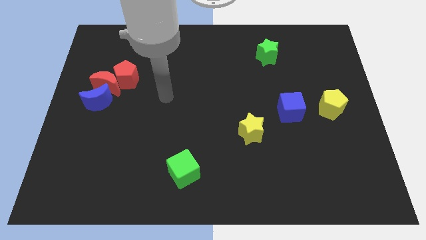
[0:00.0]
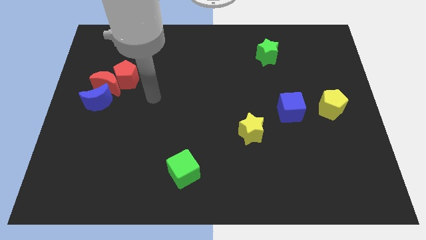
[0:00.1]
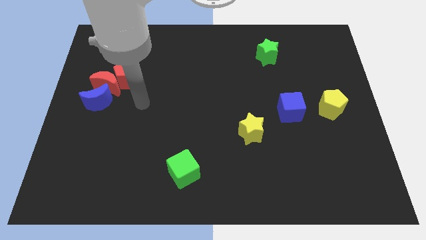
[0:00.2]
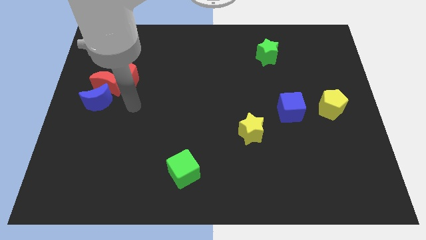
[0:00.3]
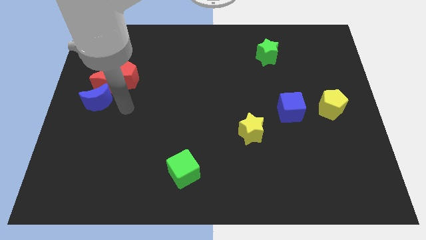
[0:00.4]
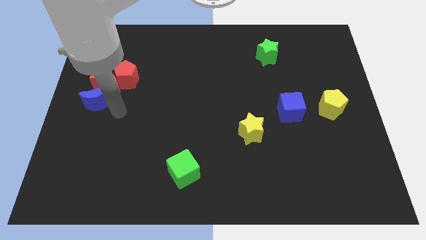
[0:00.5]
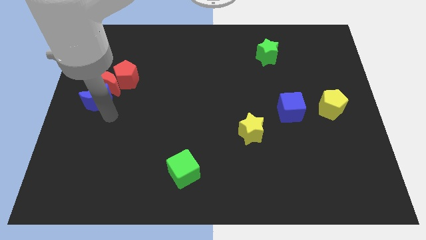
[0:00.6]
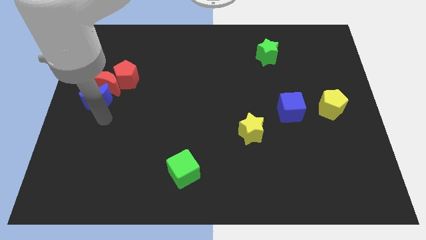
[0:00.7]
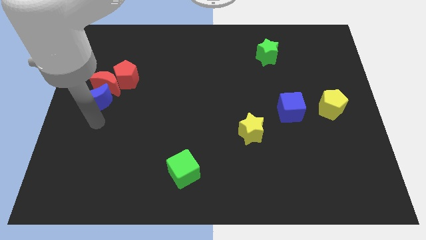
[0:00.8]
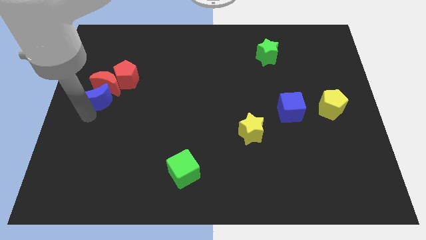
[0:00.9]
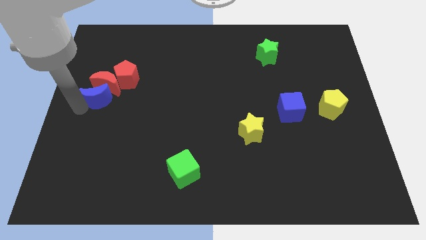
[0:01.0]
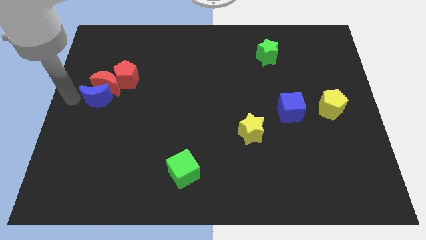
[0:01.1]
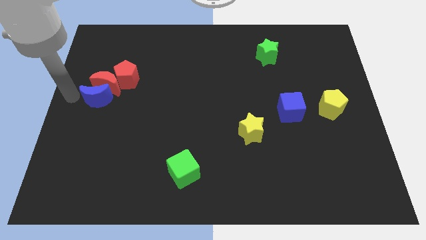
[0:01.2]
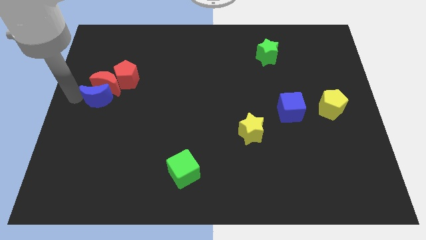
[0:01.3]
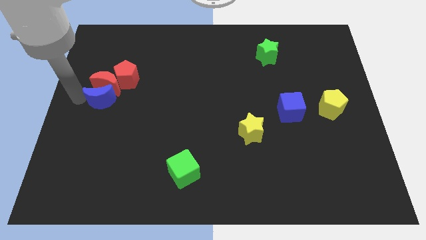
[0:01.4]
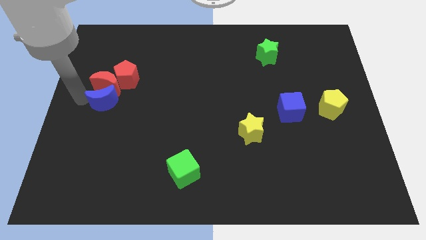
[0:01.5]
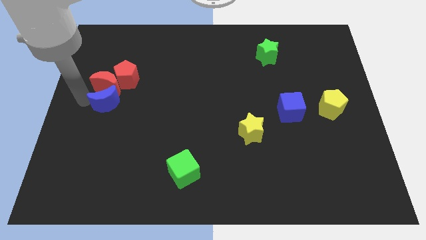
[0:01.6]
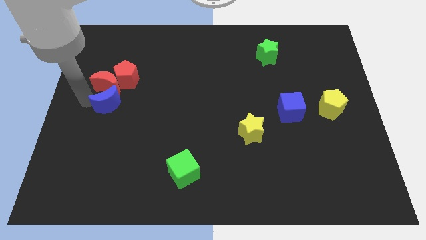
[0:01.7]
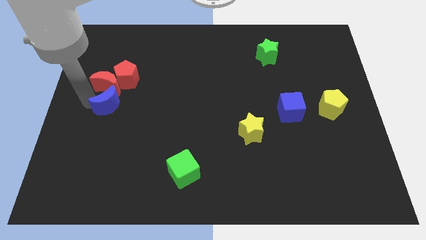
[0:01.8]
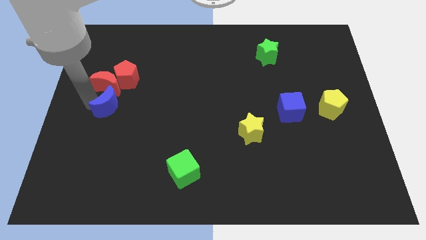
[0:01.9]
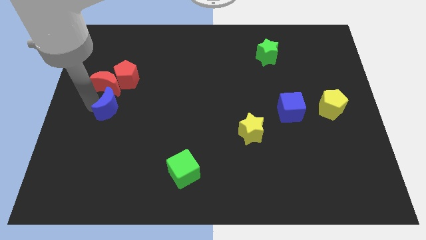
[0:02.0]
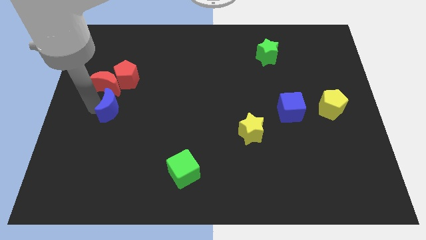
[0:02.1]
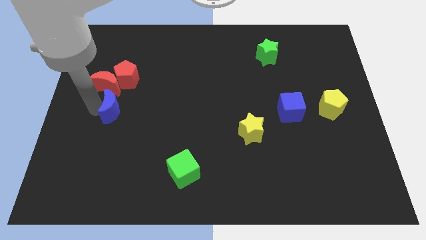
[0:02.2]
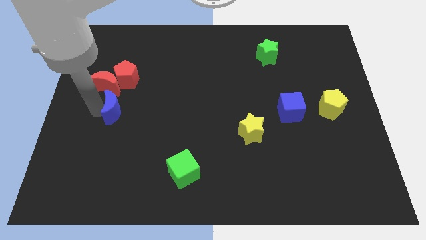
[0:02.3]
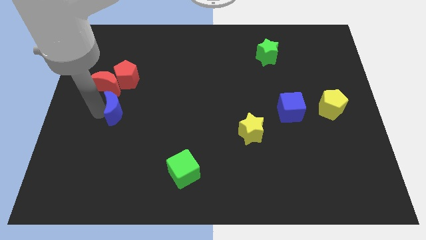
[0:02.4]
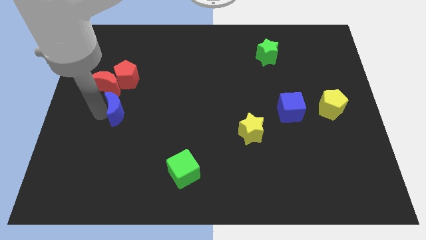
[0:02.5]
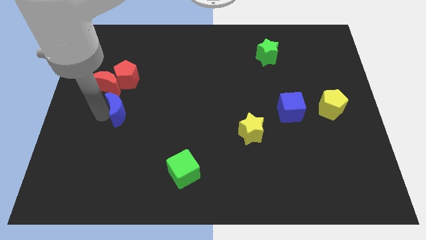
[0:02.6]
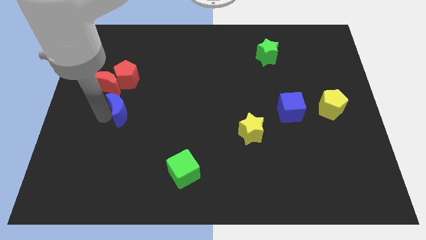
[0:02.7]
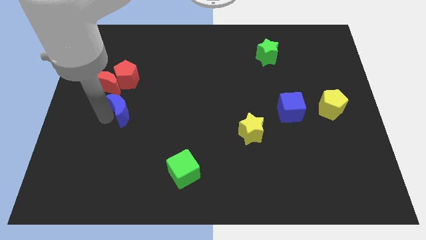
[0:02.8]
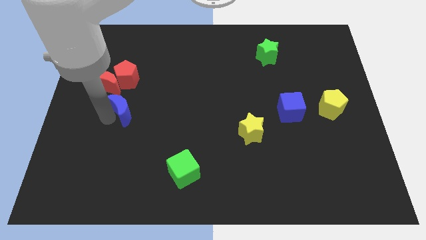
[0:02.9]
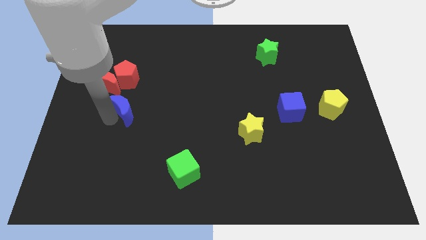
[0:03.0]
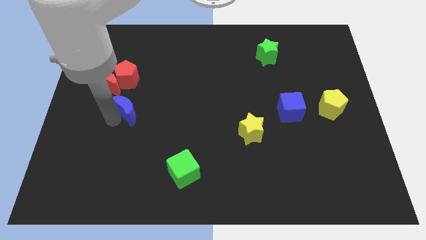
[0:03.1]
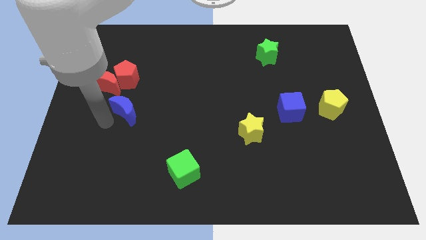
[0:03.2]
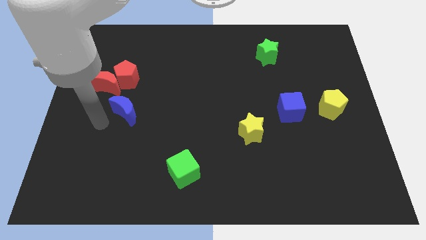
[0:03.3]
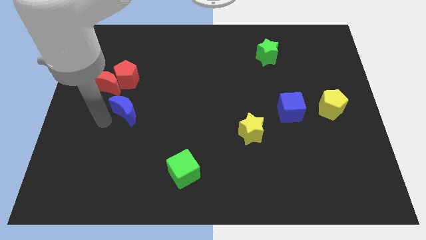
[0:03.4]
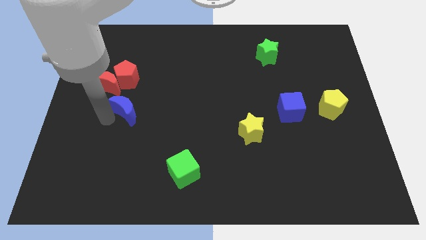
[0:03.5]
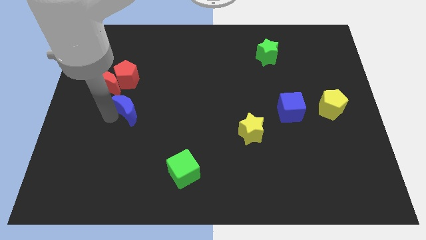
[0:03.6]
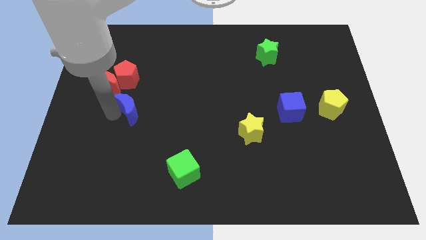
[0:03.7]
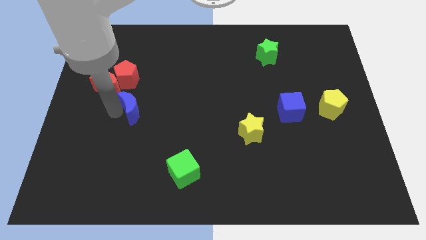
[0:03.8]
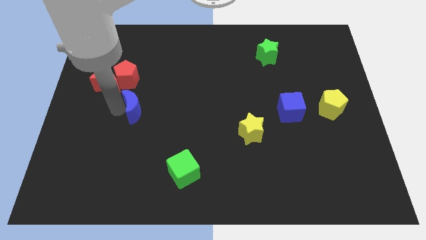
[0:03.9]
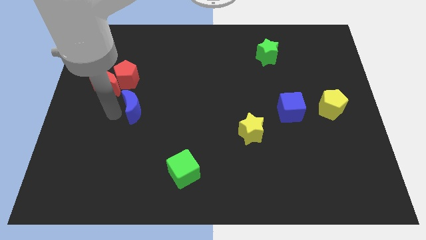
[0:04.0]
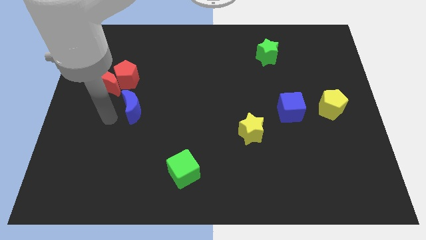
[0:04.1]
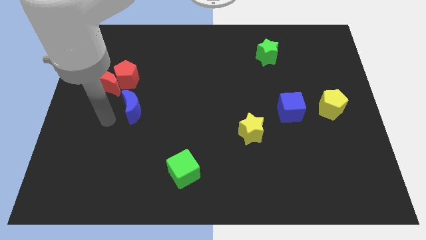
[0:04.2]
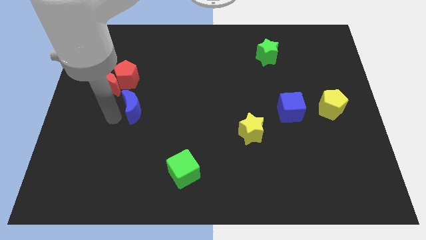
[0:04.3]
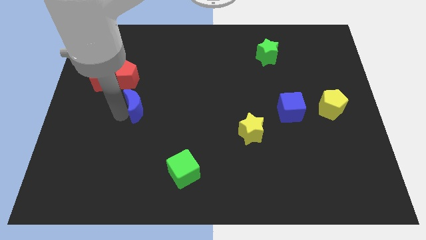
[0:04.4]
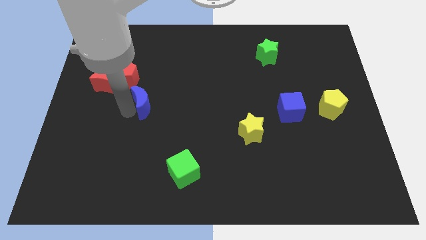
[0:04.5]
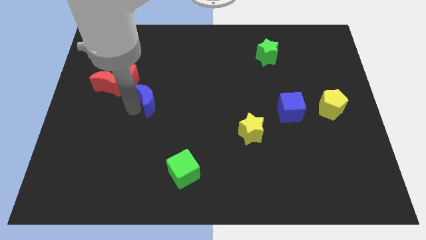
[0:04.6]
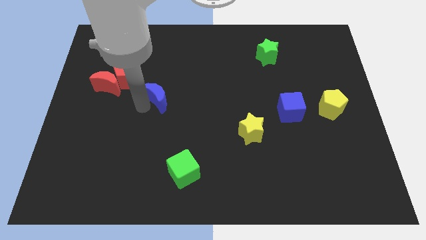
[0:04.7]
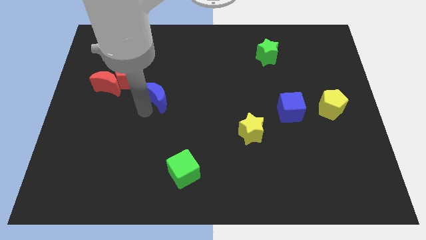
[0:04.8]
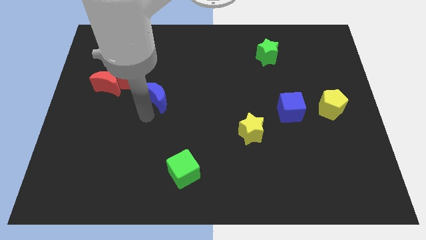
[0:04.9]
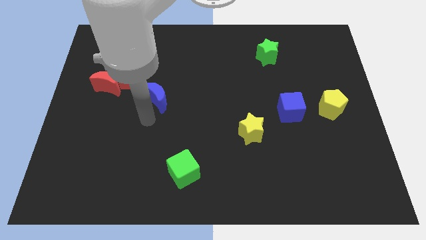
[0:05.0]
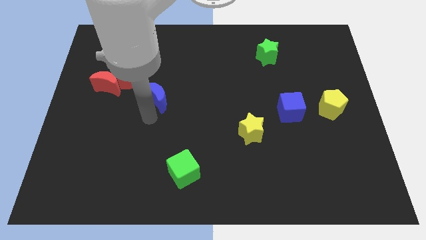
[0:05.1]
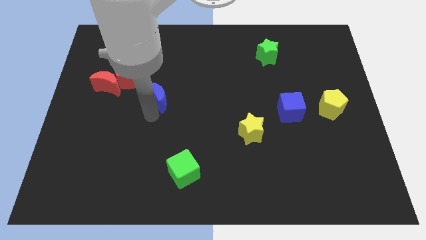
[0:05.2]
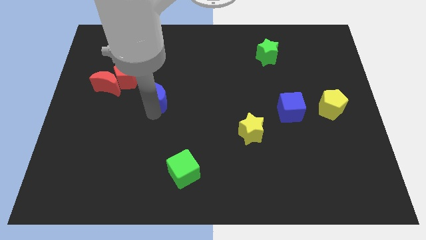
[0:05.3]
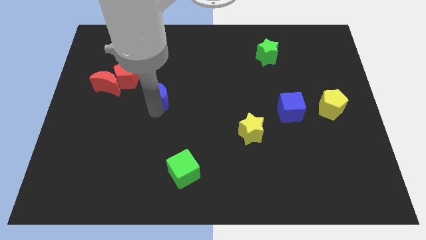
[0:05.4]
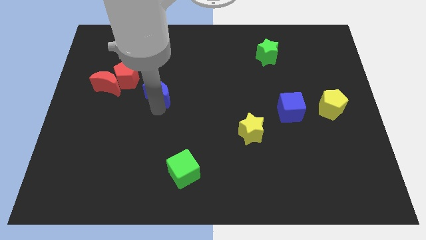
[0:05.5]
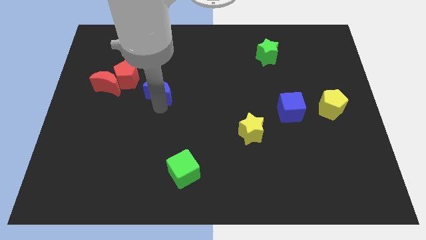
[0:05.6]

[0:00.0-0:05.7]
put the blue moon to the right side of the red pentagon

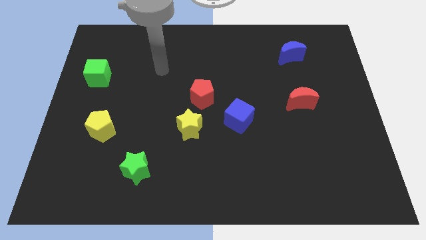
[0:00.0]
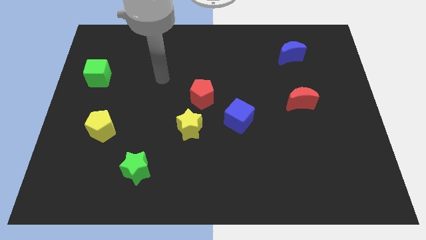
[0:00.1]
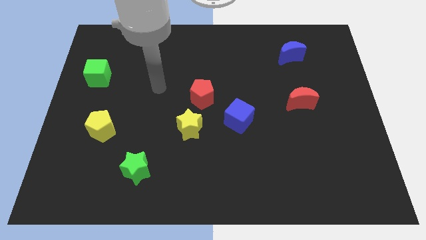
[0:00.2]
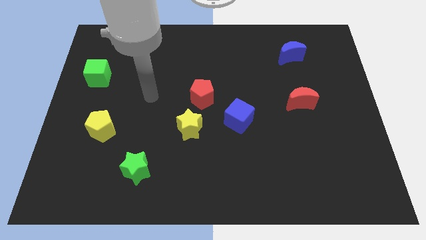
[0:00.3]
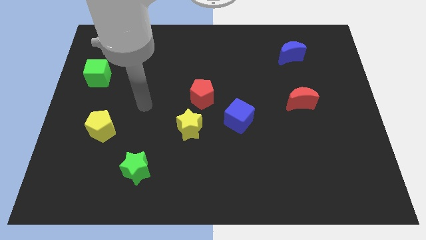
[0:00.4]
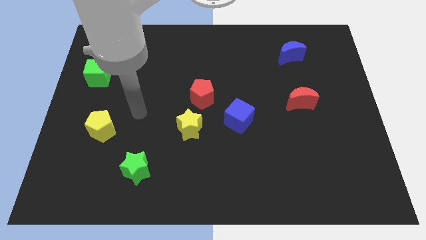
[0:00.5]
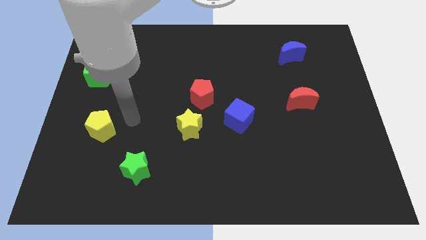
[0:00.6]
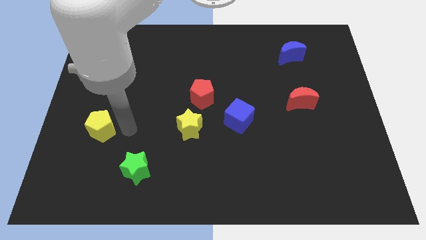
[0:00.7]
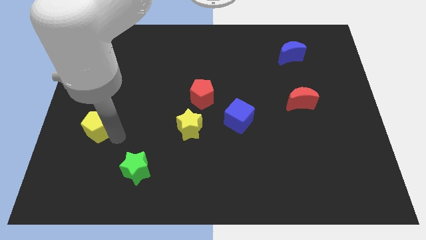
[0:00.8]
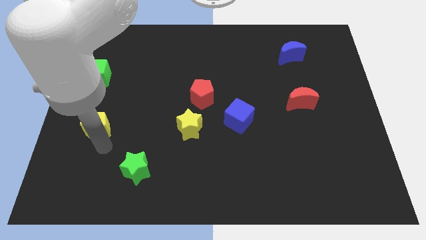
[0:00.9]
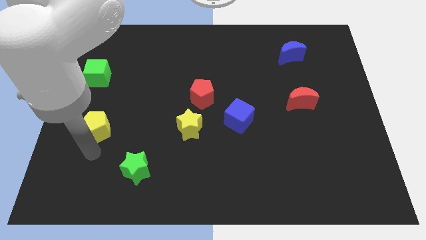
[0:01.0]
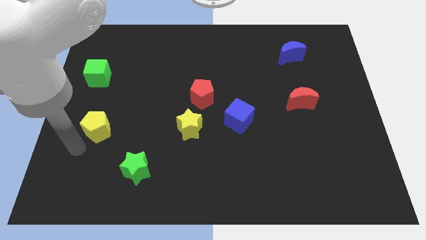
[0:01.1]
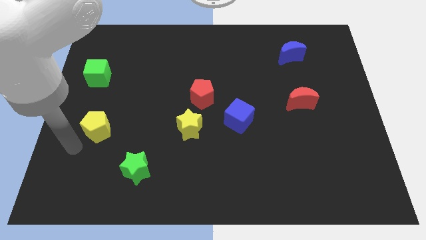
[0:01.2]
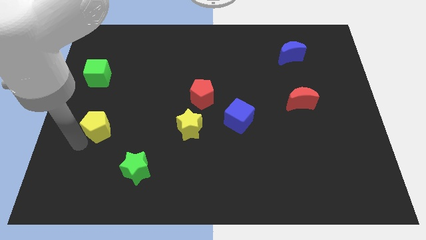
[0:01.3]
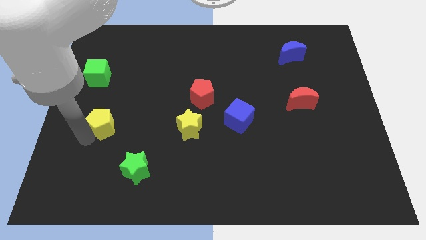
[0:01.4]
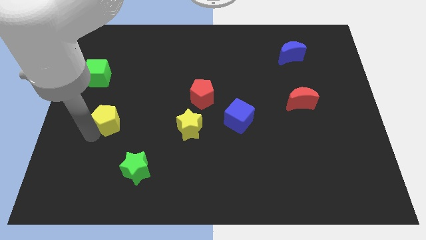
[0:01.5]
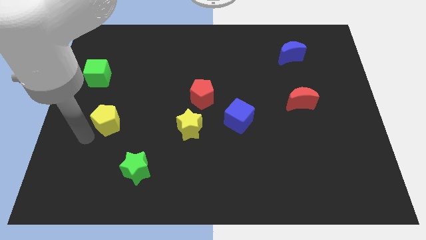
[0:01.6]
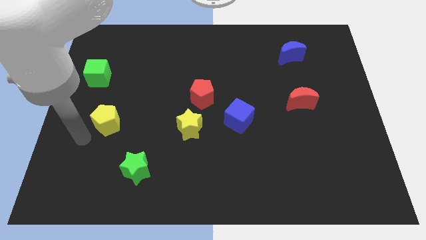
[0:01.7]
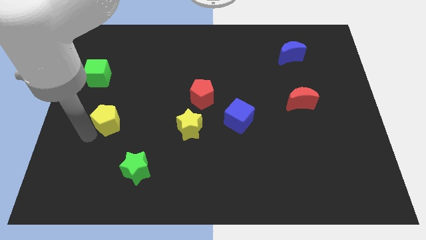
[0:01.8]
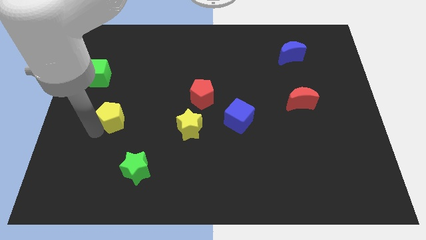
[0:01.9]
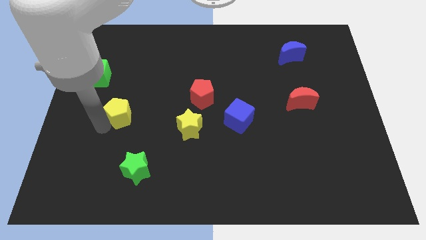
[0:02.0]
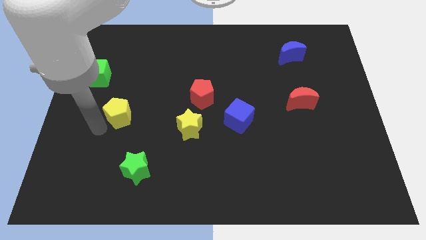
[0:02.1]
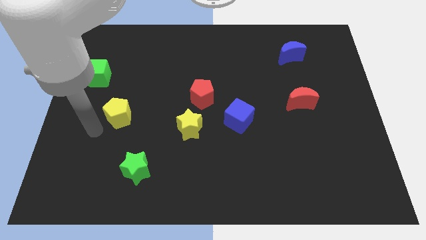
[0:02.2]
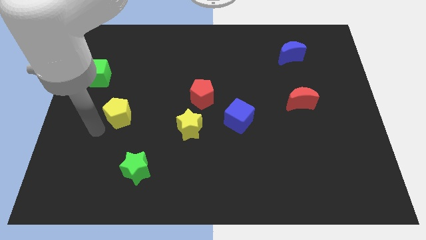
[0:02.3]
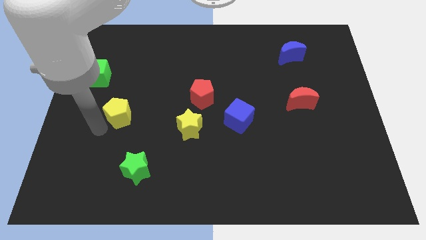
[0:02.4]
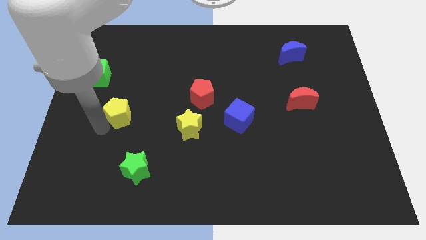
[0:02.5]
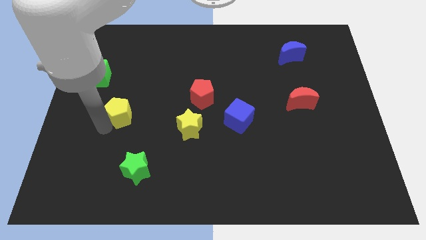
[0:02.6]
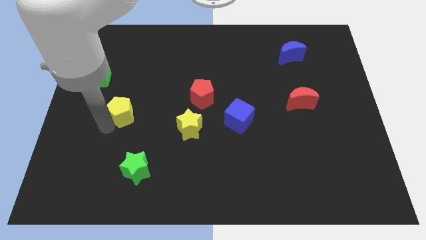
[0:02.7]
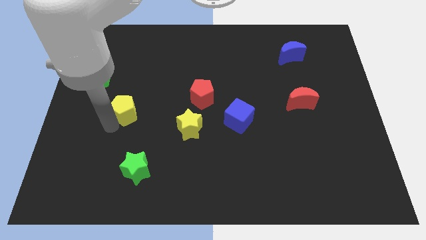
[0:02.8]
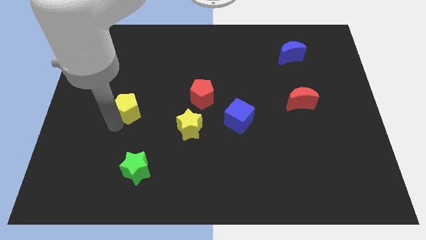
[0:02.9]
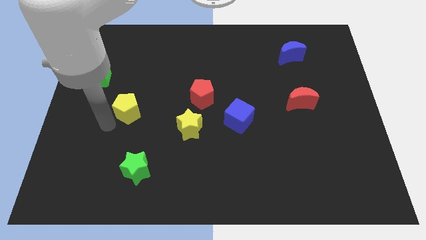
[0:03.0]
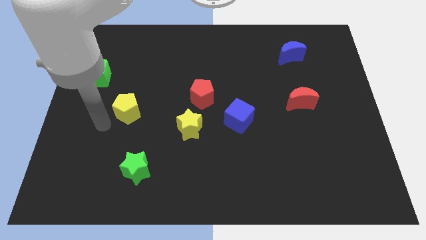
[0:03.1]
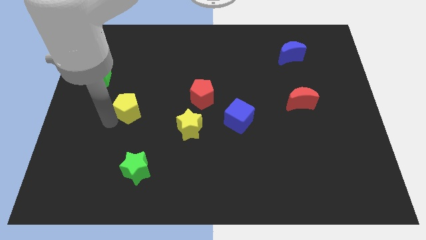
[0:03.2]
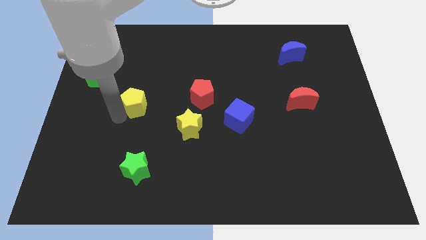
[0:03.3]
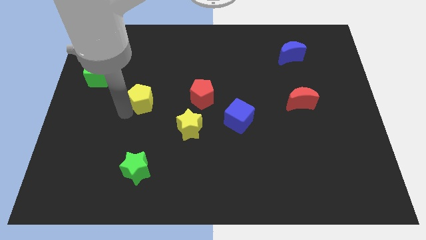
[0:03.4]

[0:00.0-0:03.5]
slide the yellow pentagon to the left of the red pentagon
